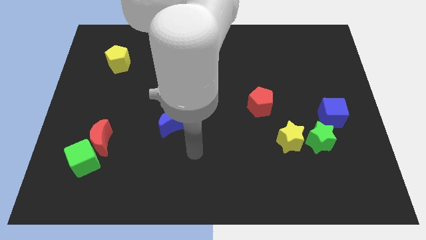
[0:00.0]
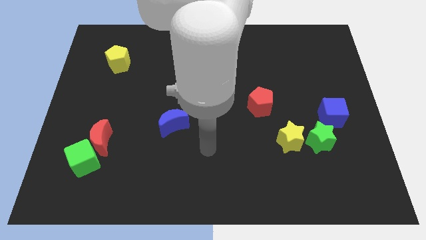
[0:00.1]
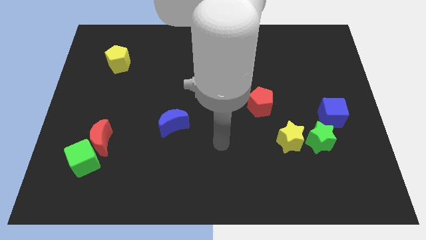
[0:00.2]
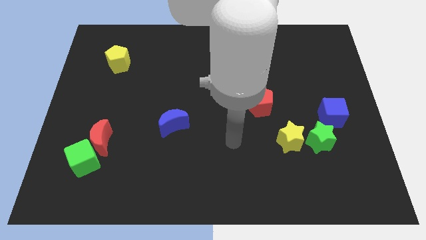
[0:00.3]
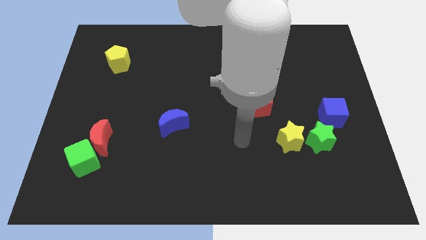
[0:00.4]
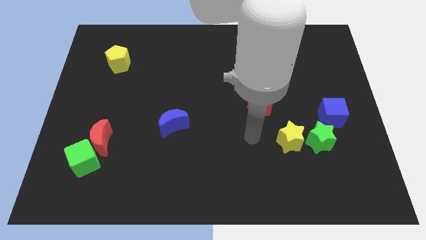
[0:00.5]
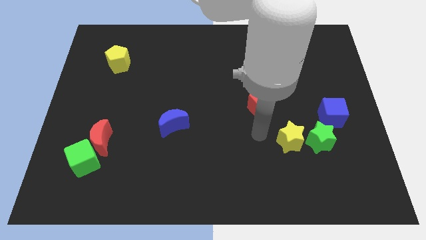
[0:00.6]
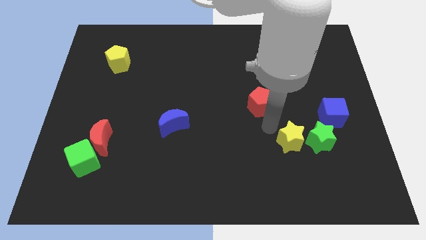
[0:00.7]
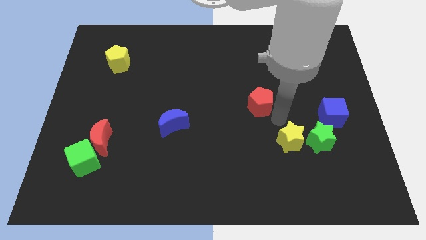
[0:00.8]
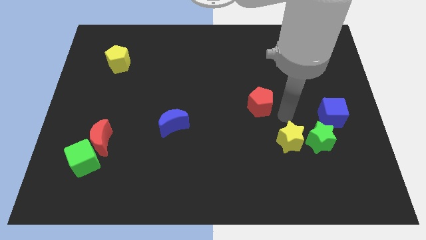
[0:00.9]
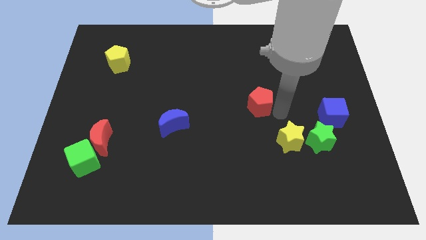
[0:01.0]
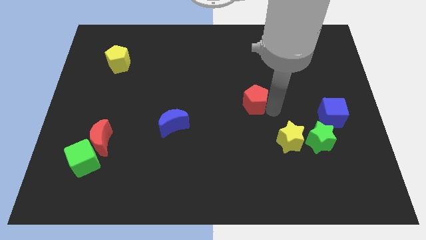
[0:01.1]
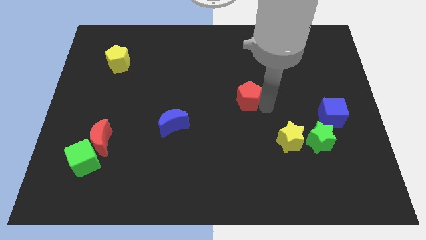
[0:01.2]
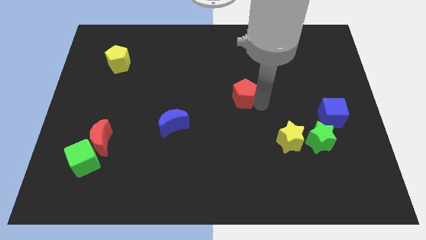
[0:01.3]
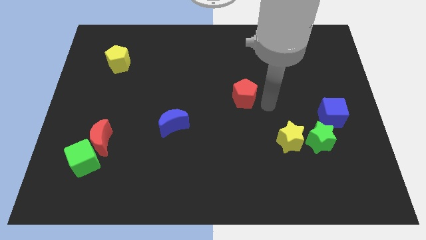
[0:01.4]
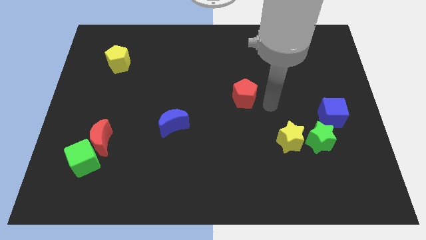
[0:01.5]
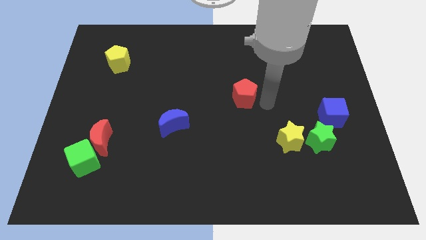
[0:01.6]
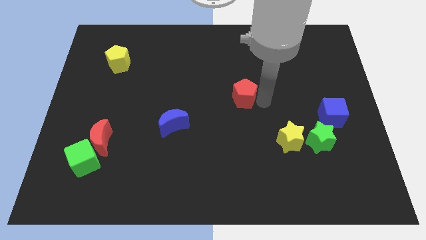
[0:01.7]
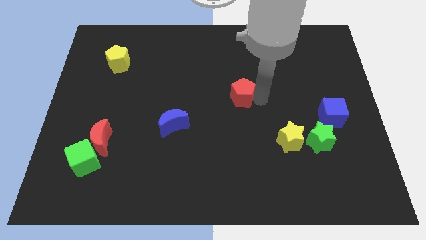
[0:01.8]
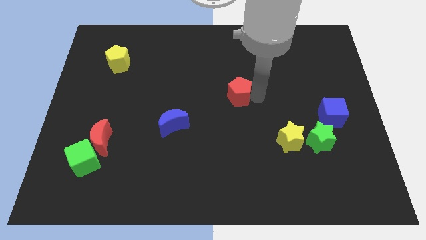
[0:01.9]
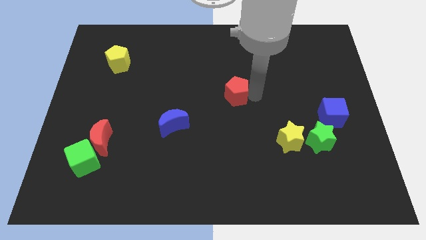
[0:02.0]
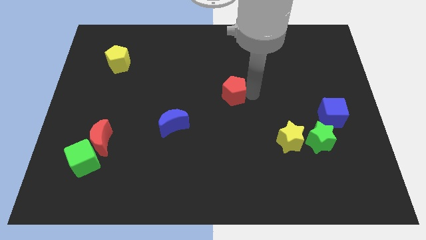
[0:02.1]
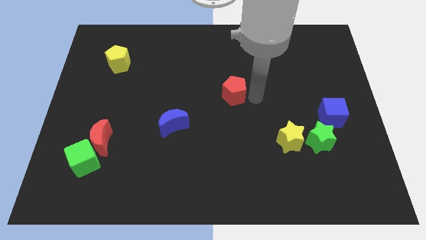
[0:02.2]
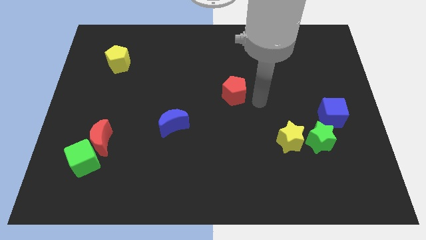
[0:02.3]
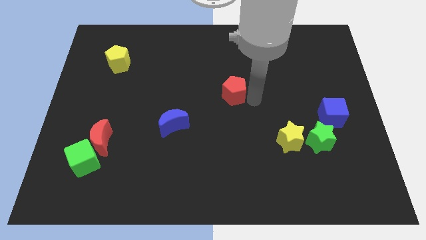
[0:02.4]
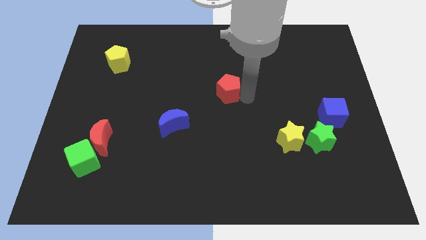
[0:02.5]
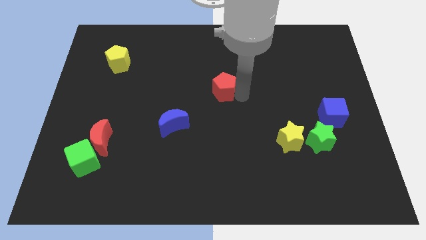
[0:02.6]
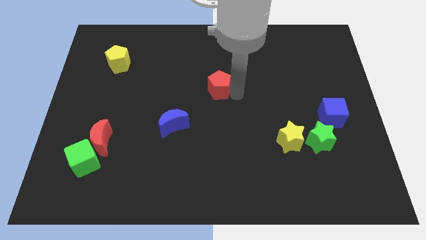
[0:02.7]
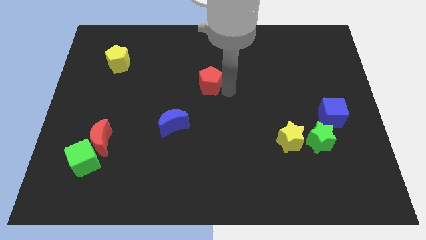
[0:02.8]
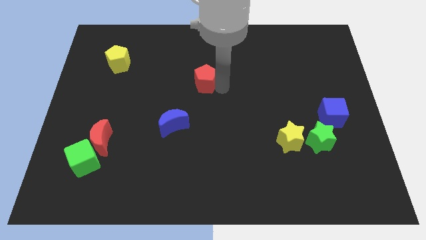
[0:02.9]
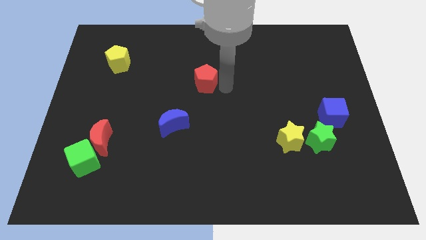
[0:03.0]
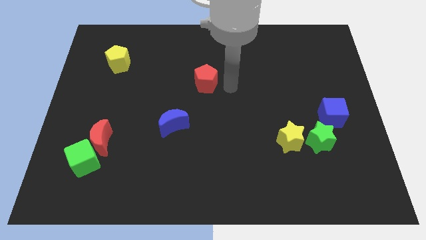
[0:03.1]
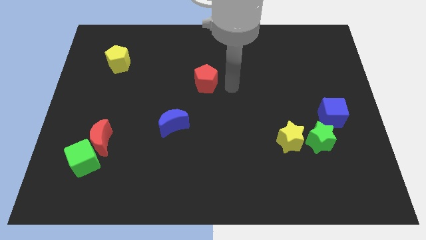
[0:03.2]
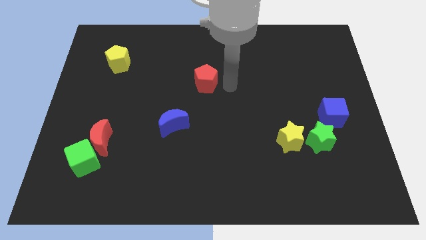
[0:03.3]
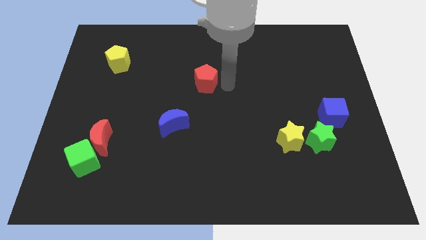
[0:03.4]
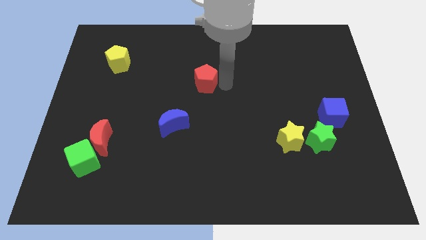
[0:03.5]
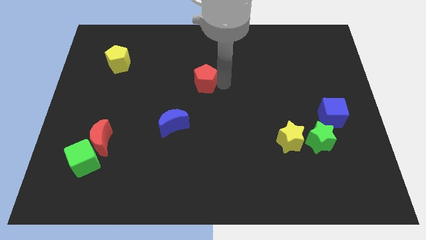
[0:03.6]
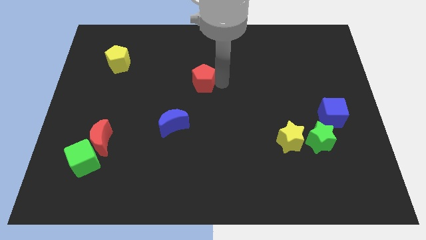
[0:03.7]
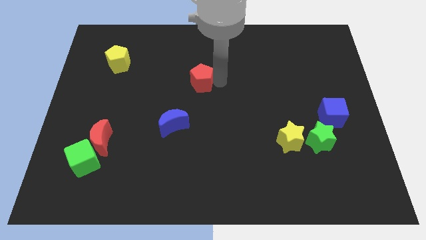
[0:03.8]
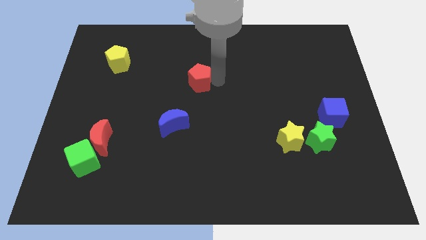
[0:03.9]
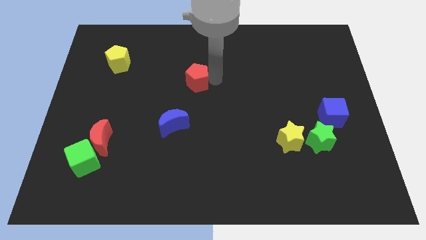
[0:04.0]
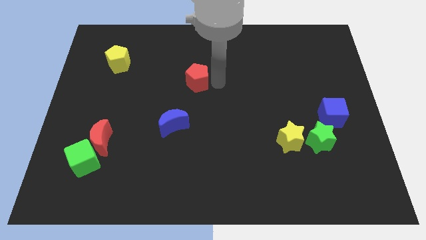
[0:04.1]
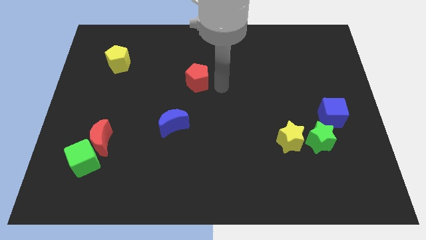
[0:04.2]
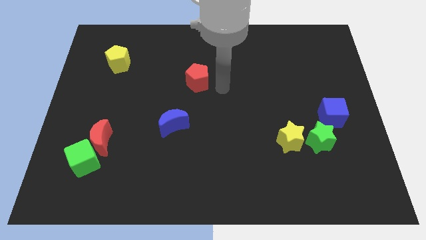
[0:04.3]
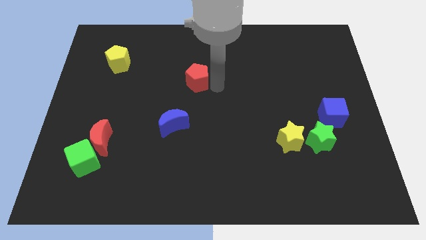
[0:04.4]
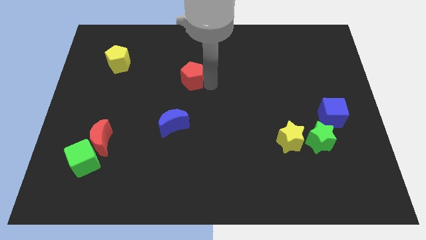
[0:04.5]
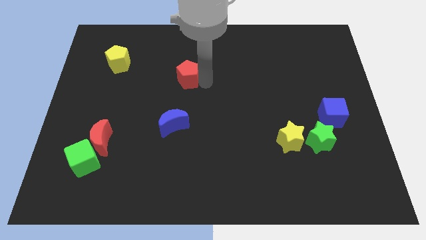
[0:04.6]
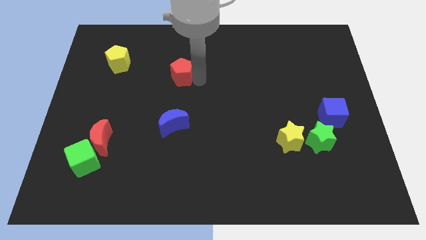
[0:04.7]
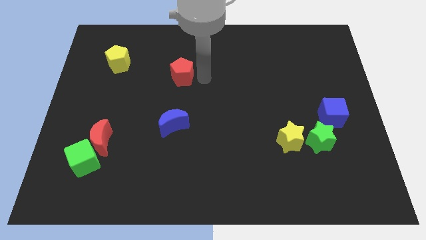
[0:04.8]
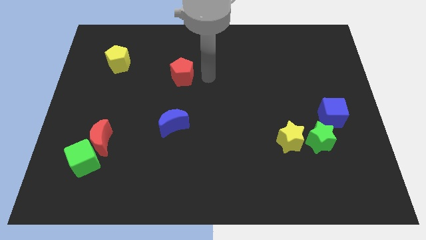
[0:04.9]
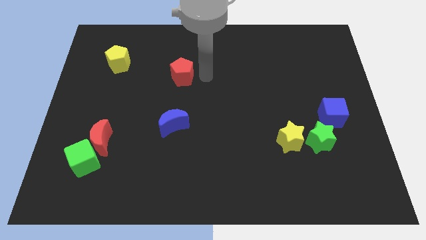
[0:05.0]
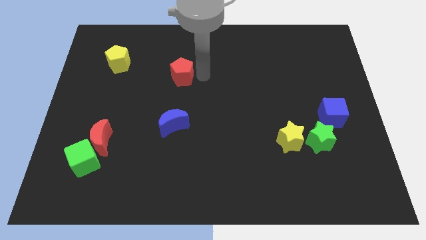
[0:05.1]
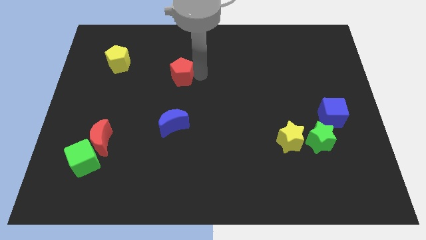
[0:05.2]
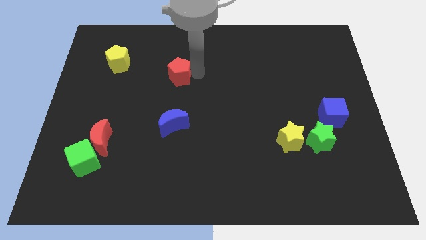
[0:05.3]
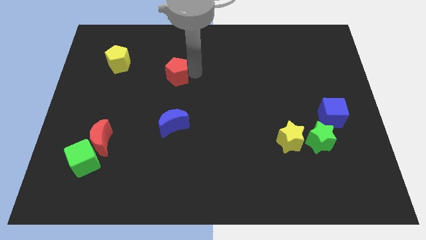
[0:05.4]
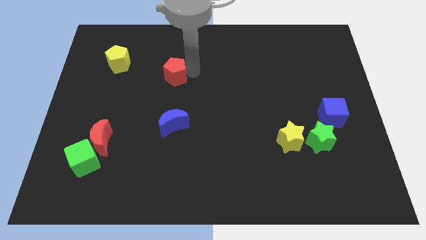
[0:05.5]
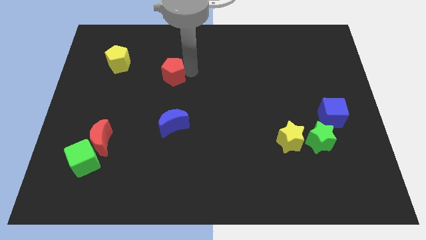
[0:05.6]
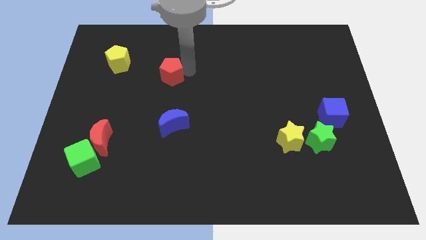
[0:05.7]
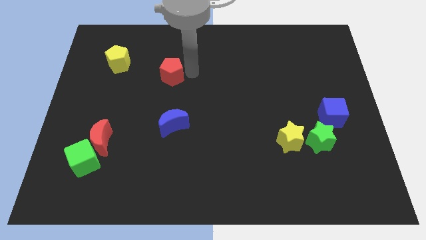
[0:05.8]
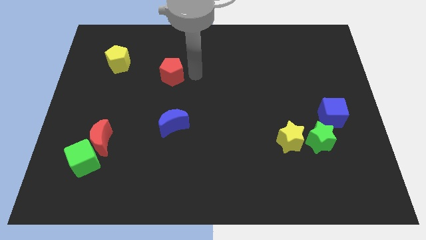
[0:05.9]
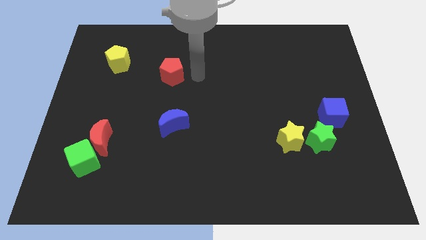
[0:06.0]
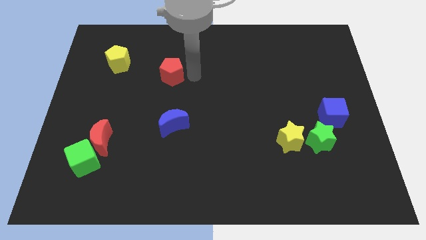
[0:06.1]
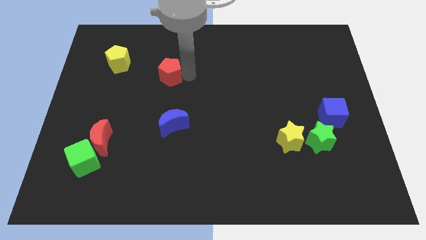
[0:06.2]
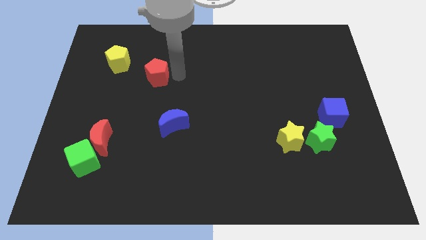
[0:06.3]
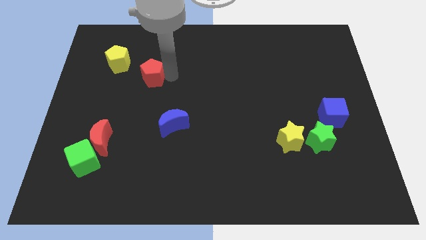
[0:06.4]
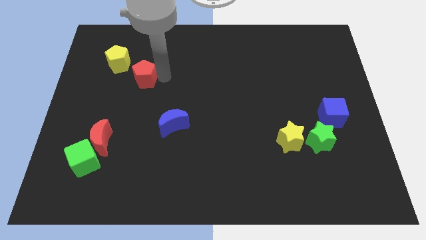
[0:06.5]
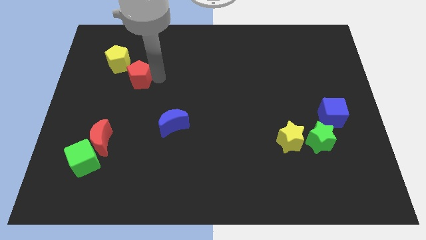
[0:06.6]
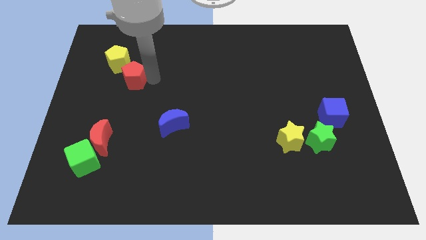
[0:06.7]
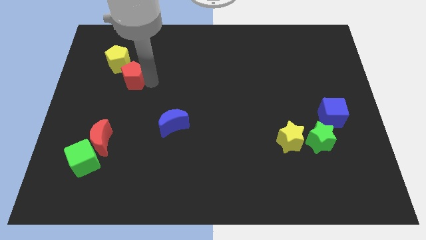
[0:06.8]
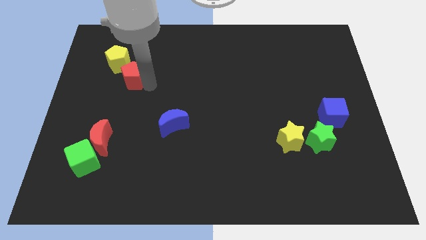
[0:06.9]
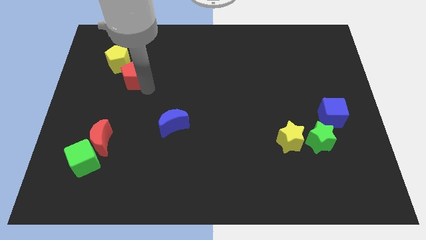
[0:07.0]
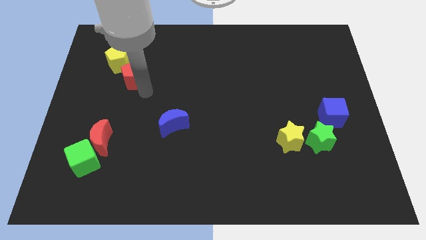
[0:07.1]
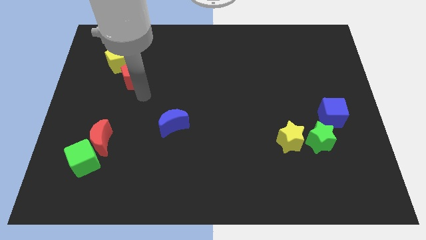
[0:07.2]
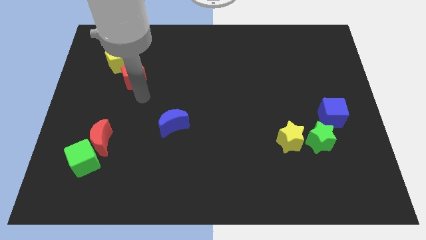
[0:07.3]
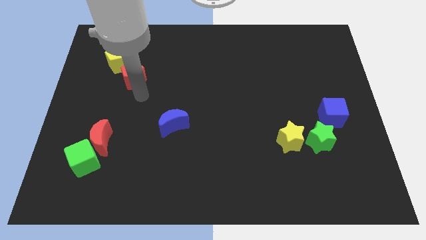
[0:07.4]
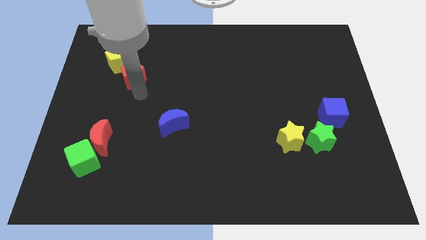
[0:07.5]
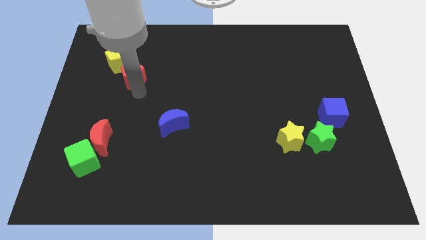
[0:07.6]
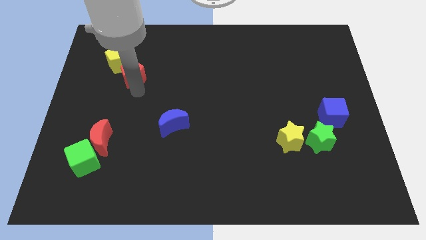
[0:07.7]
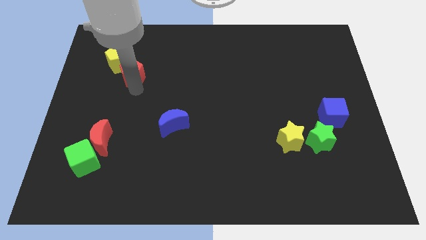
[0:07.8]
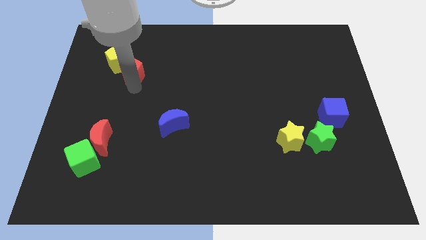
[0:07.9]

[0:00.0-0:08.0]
slide the red pentagon close to the yellow pentagon
